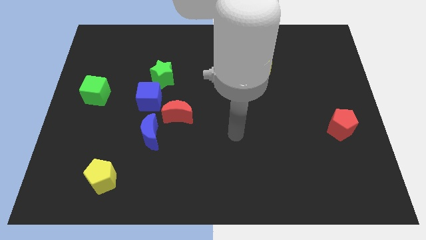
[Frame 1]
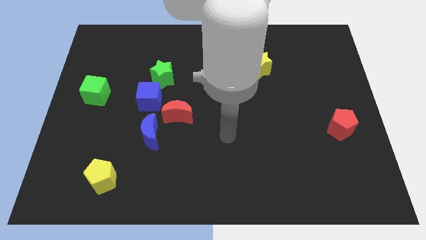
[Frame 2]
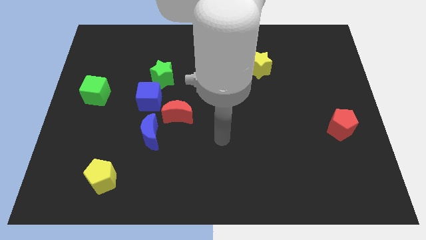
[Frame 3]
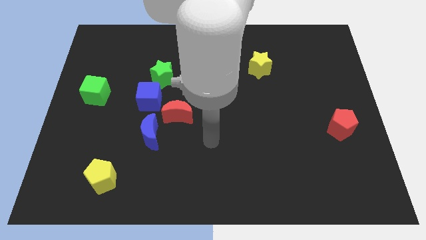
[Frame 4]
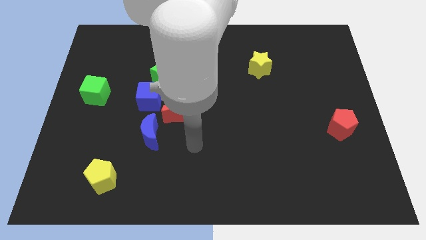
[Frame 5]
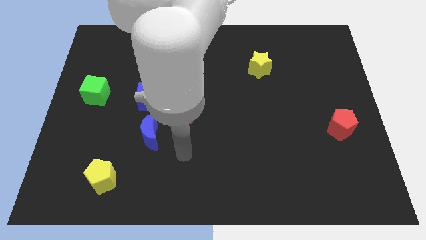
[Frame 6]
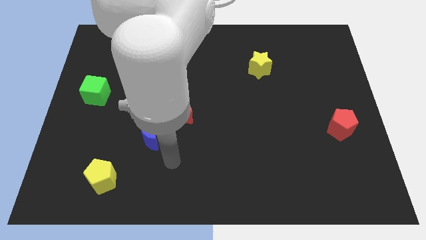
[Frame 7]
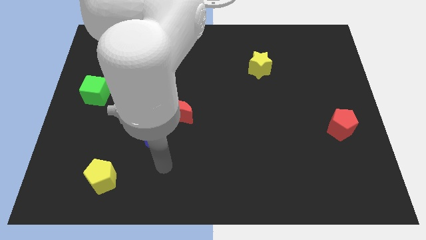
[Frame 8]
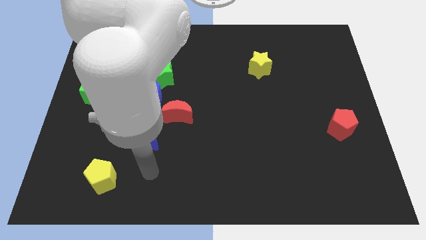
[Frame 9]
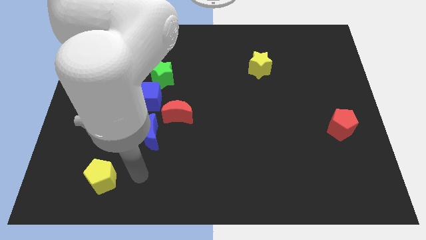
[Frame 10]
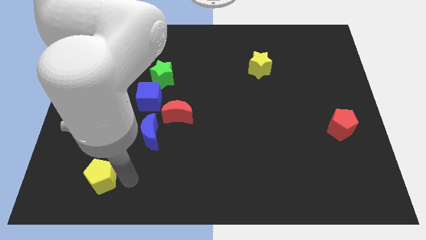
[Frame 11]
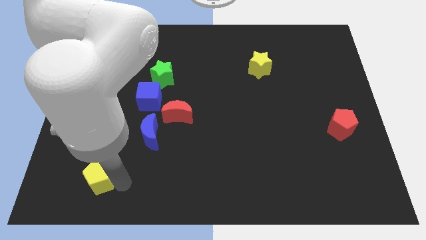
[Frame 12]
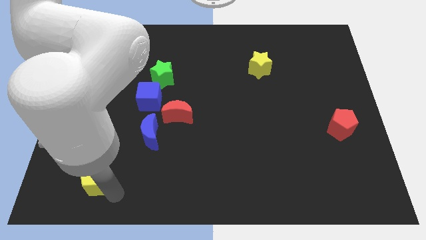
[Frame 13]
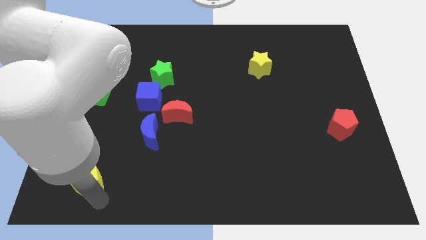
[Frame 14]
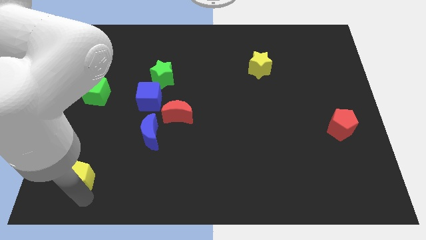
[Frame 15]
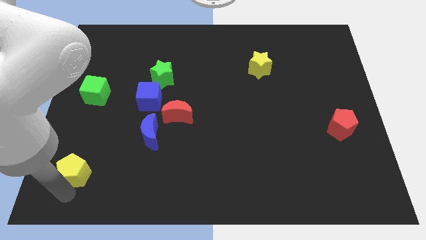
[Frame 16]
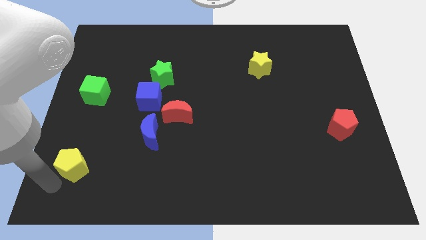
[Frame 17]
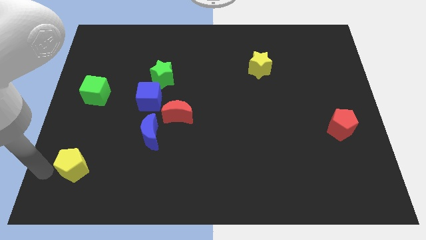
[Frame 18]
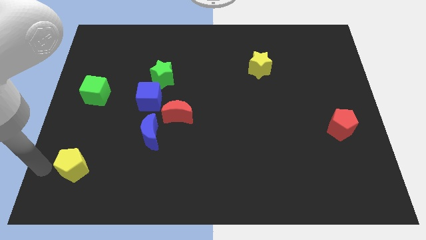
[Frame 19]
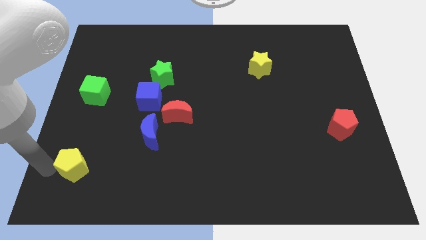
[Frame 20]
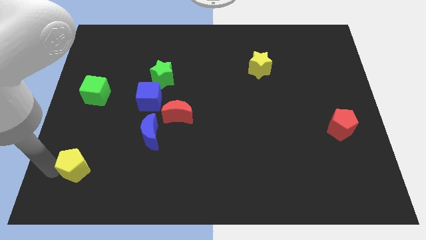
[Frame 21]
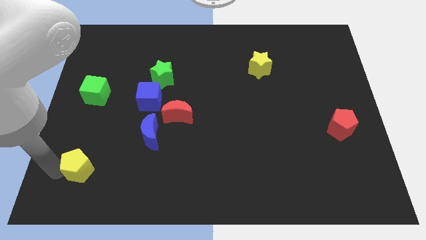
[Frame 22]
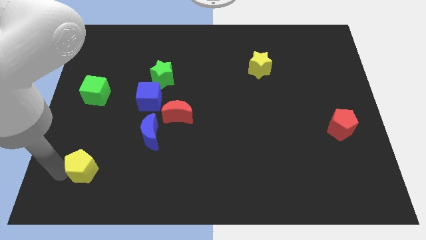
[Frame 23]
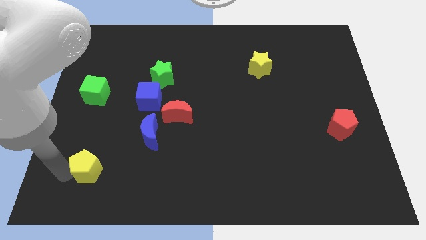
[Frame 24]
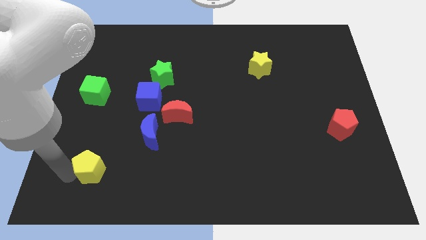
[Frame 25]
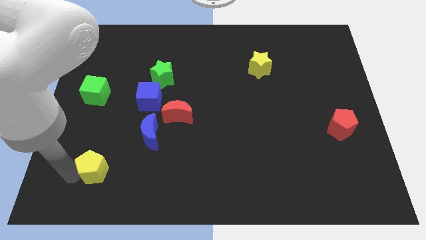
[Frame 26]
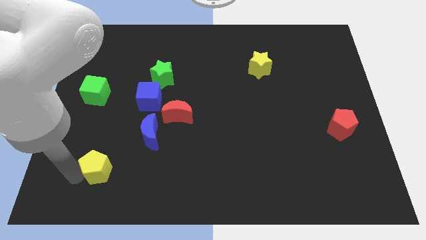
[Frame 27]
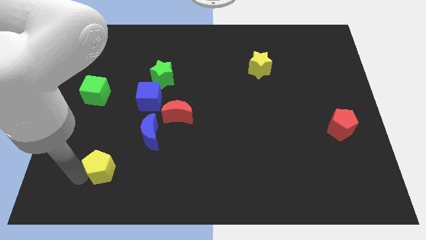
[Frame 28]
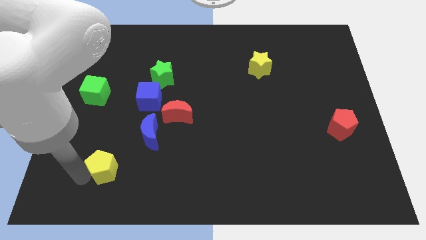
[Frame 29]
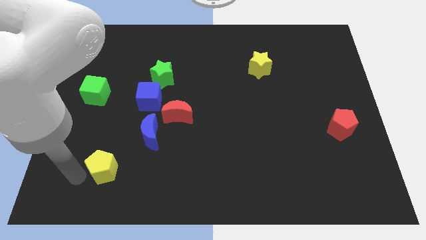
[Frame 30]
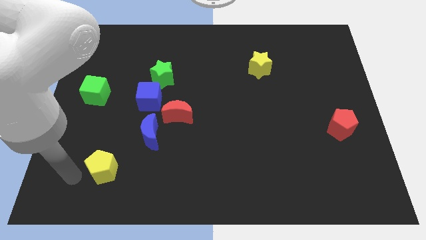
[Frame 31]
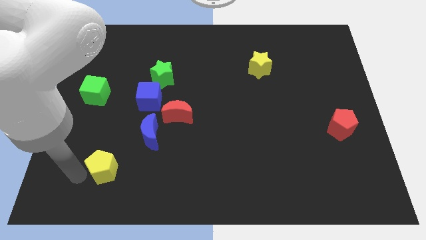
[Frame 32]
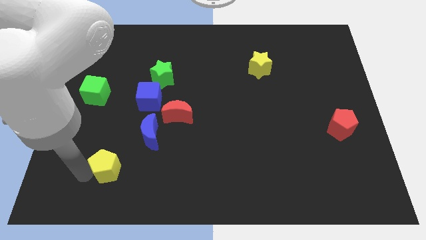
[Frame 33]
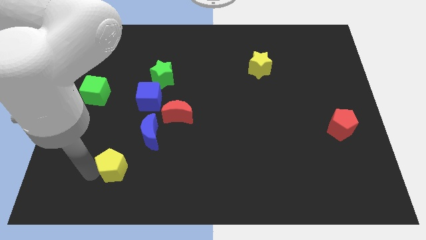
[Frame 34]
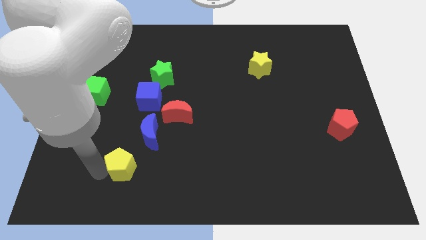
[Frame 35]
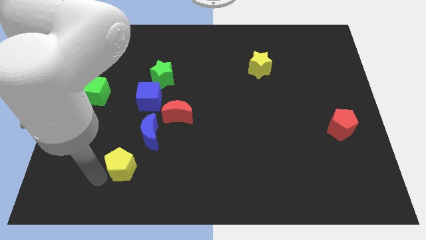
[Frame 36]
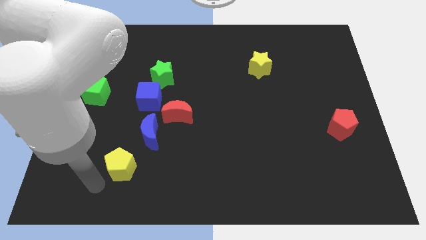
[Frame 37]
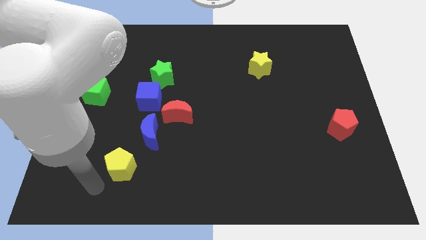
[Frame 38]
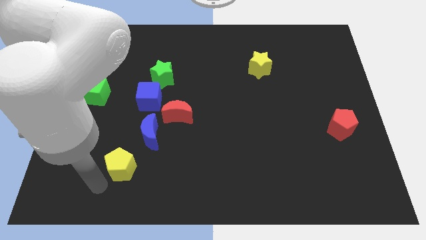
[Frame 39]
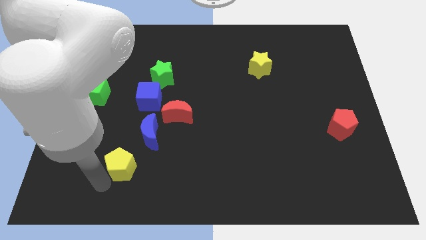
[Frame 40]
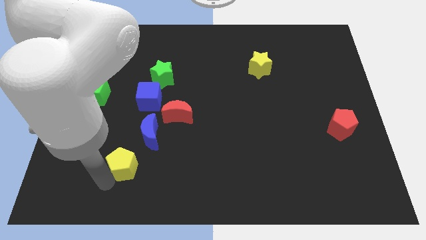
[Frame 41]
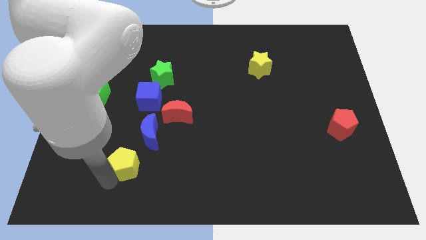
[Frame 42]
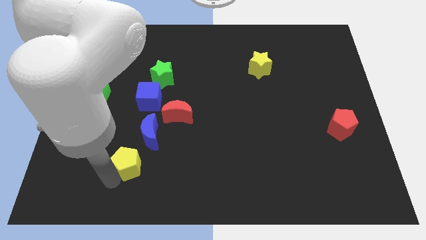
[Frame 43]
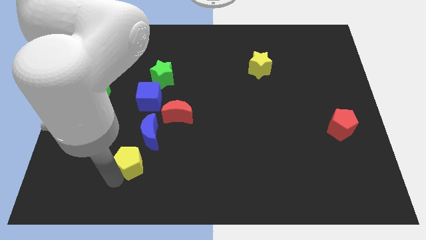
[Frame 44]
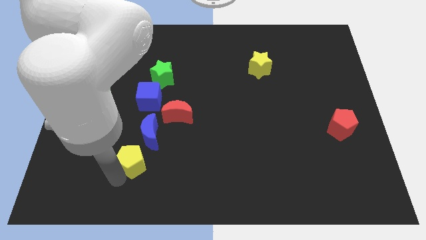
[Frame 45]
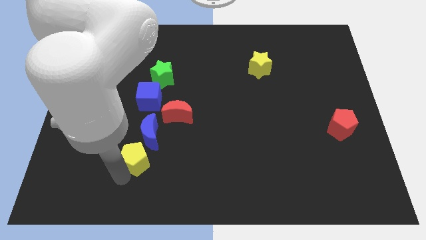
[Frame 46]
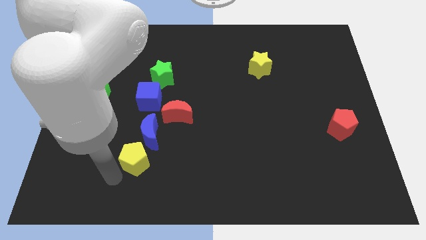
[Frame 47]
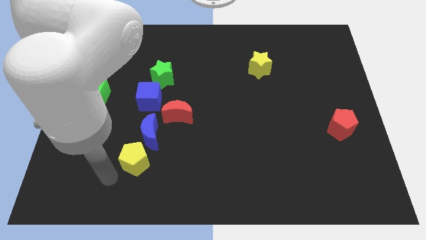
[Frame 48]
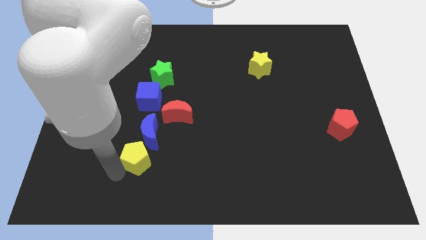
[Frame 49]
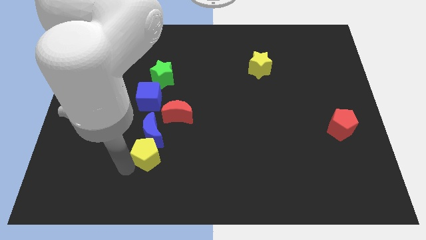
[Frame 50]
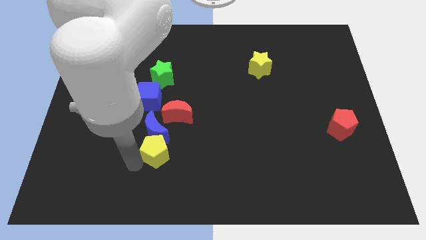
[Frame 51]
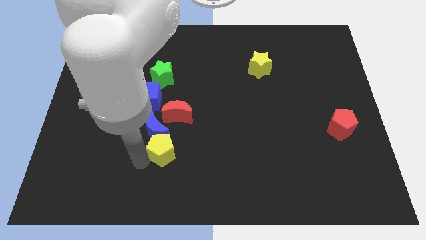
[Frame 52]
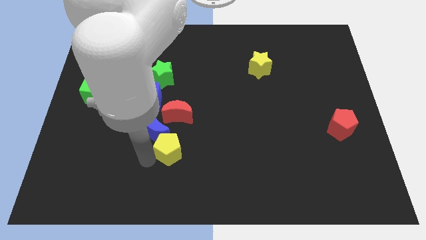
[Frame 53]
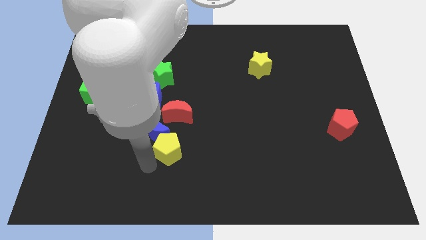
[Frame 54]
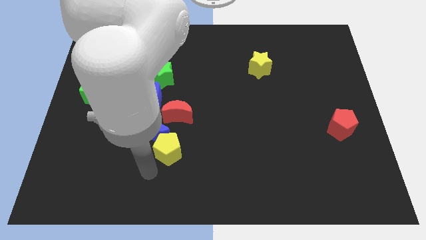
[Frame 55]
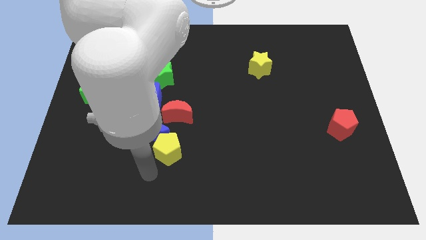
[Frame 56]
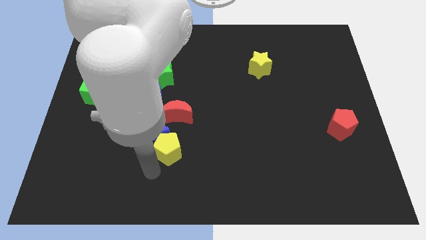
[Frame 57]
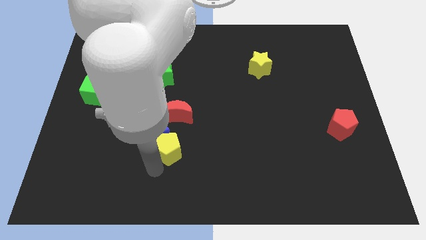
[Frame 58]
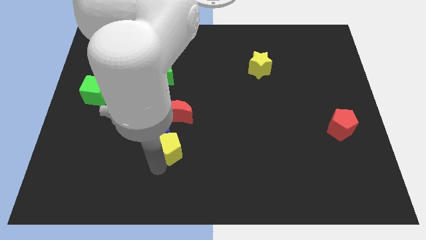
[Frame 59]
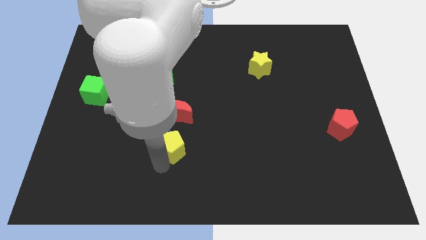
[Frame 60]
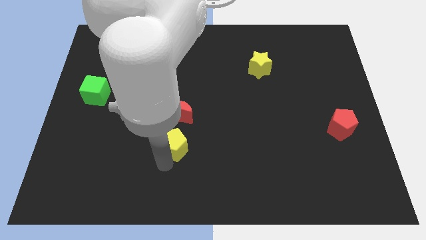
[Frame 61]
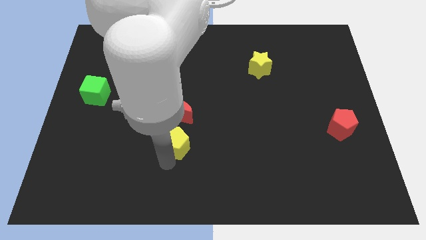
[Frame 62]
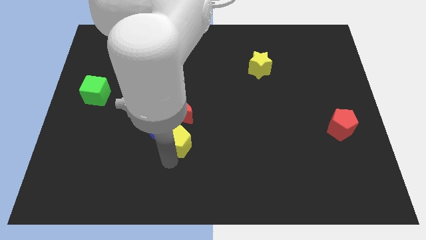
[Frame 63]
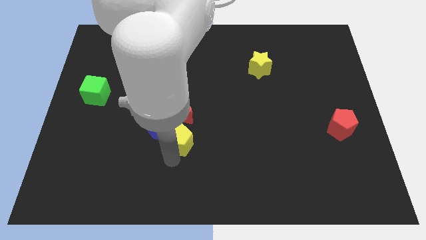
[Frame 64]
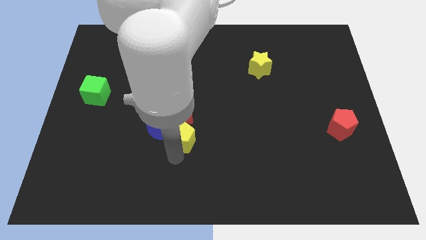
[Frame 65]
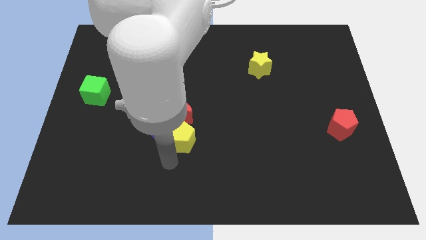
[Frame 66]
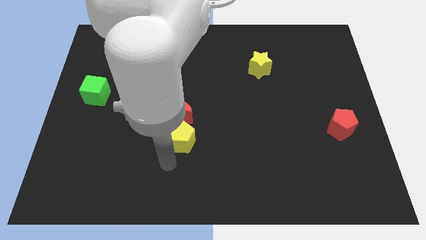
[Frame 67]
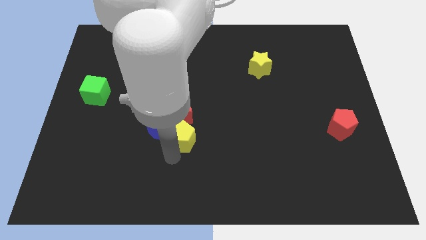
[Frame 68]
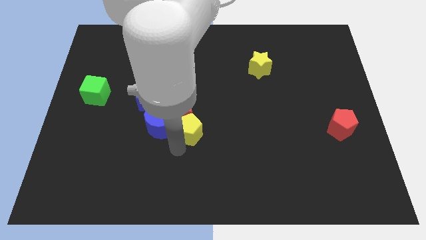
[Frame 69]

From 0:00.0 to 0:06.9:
move the yellow pentagon to the center

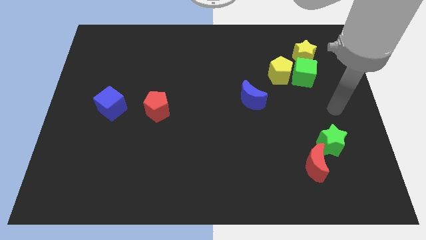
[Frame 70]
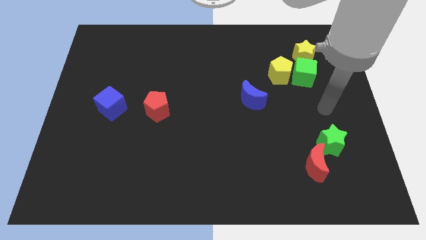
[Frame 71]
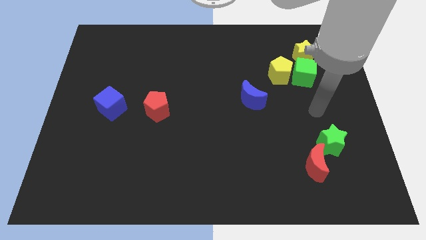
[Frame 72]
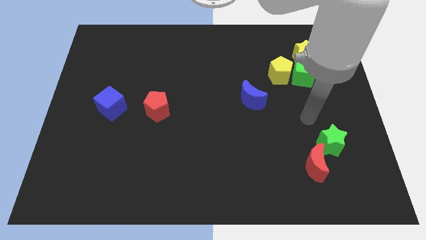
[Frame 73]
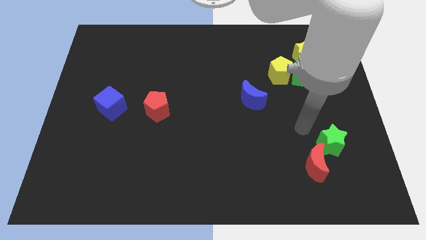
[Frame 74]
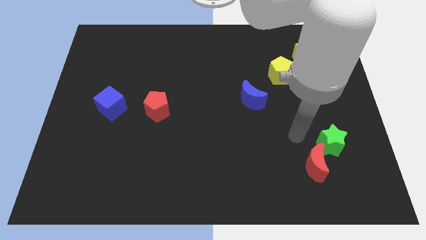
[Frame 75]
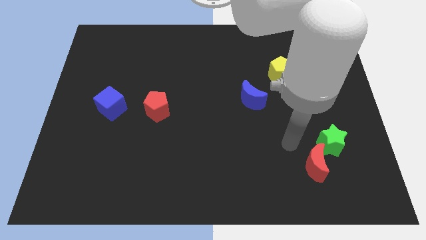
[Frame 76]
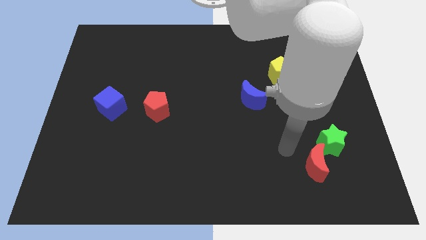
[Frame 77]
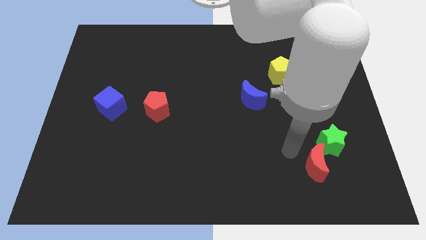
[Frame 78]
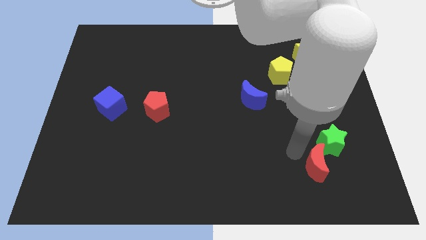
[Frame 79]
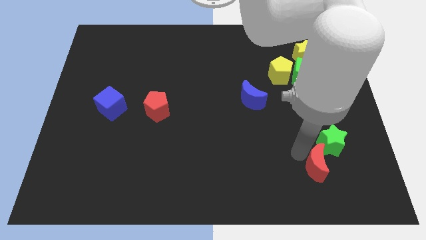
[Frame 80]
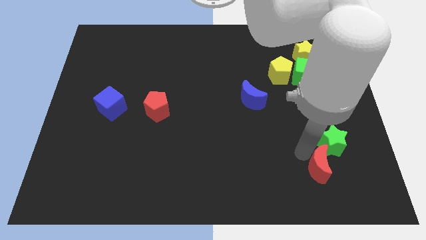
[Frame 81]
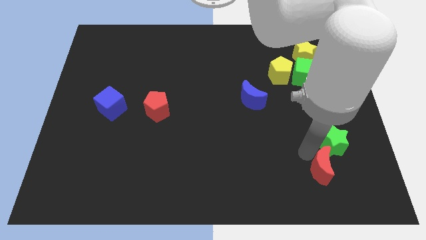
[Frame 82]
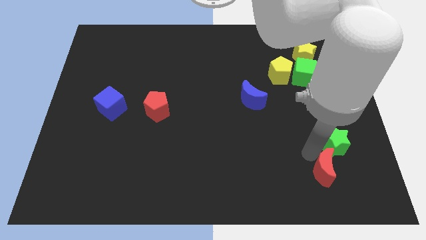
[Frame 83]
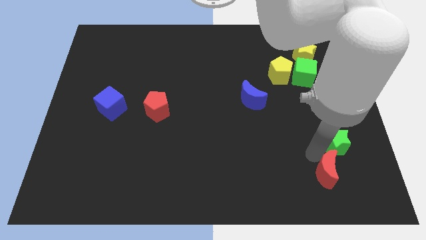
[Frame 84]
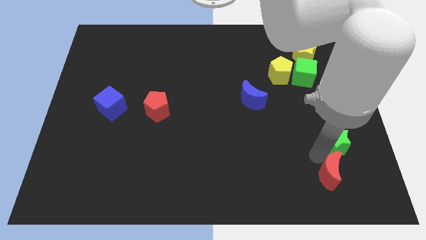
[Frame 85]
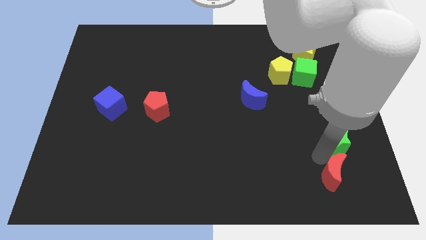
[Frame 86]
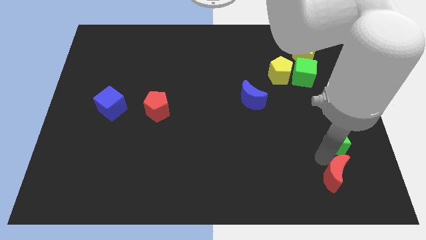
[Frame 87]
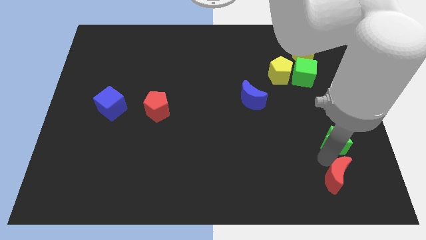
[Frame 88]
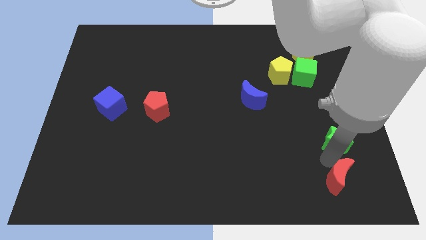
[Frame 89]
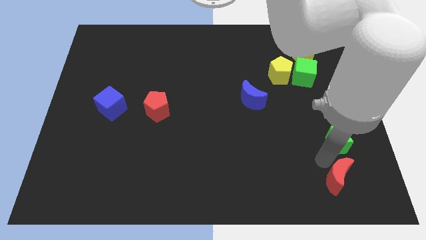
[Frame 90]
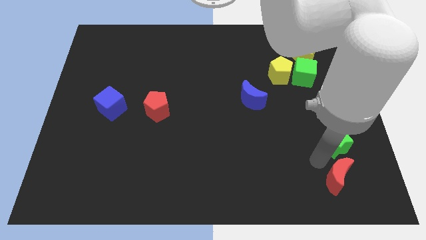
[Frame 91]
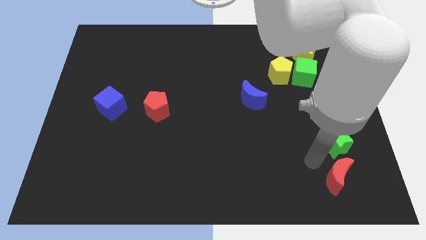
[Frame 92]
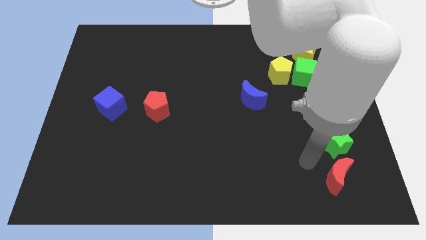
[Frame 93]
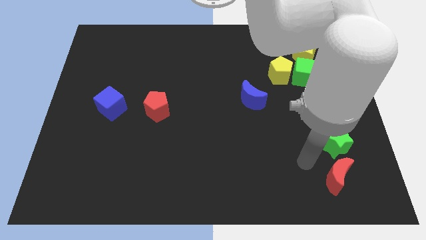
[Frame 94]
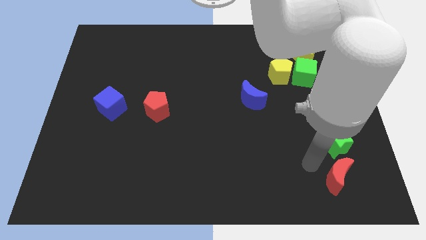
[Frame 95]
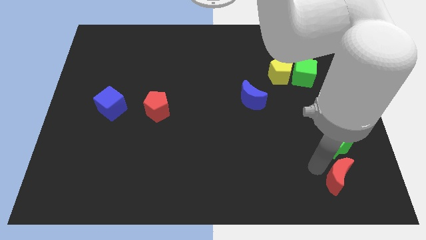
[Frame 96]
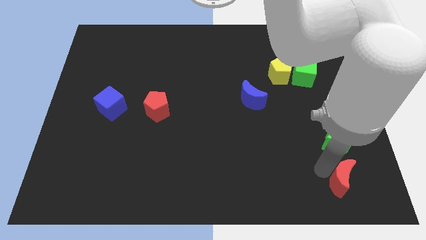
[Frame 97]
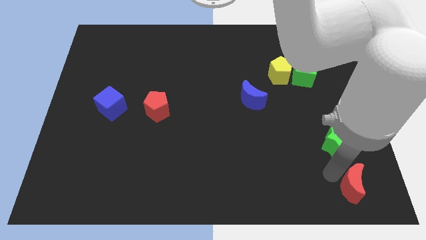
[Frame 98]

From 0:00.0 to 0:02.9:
put the red moon to the lower right corner
